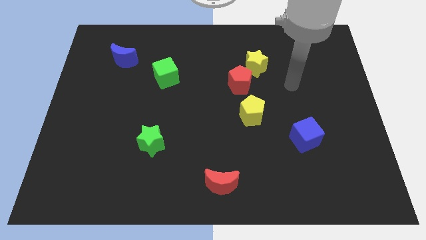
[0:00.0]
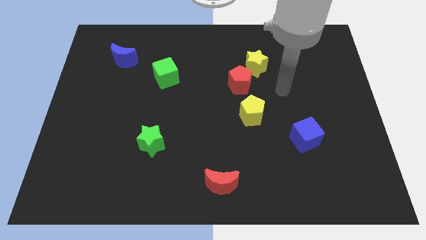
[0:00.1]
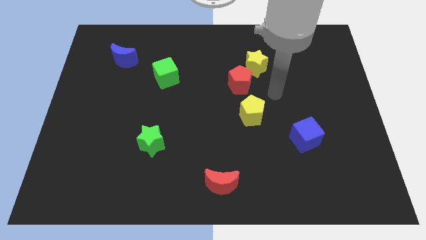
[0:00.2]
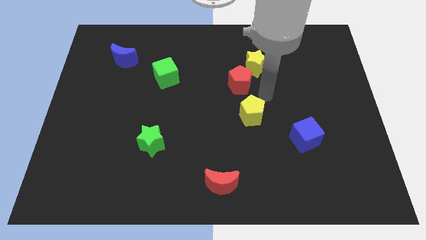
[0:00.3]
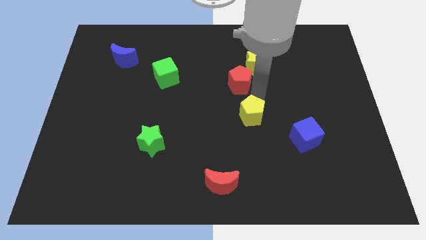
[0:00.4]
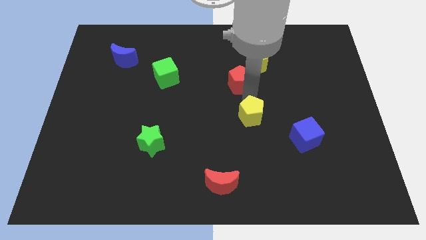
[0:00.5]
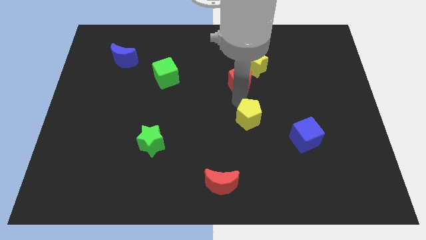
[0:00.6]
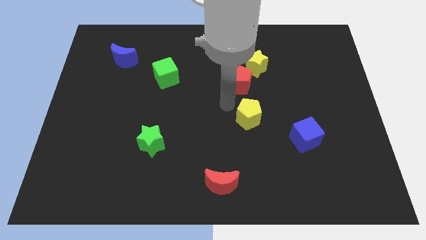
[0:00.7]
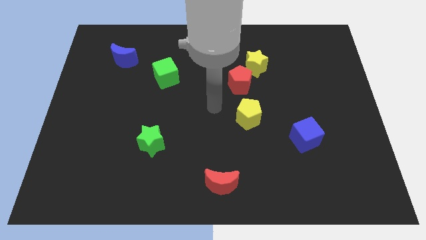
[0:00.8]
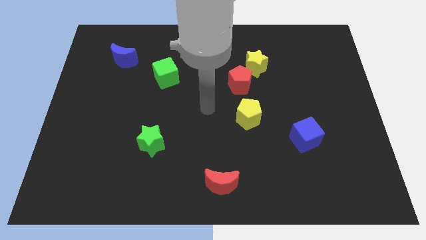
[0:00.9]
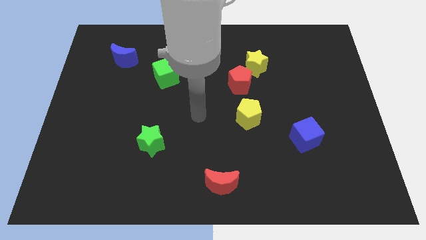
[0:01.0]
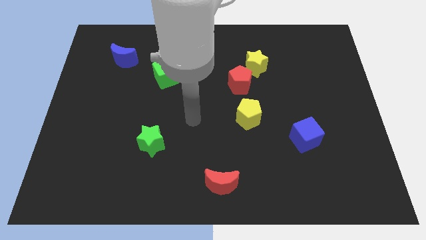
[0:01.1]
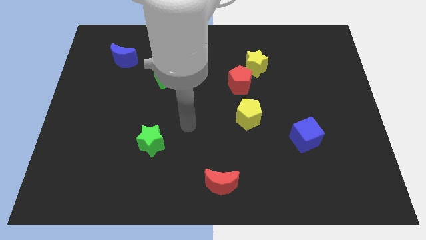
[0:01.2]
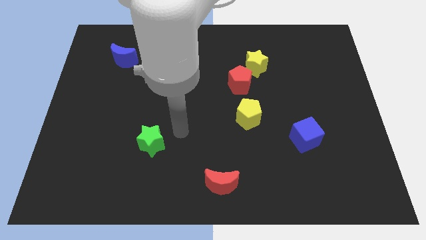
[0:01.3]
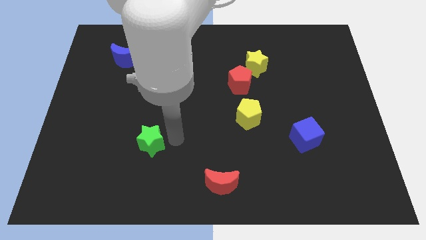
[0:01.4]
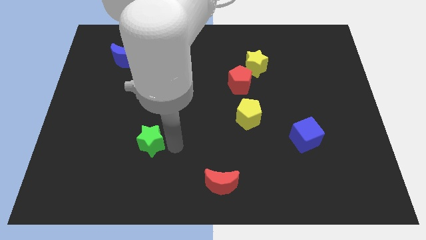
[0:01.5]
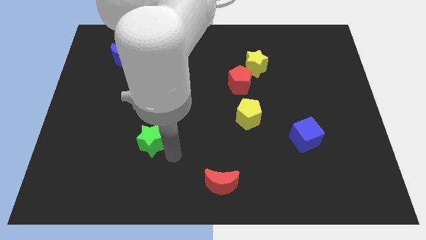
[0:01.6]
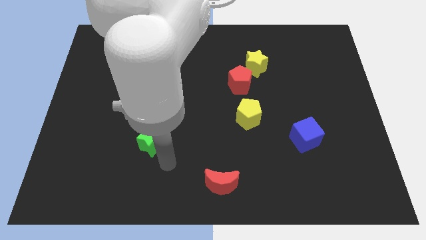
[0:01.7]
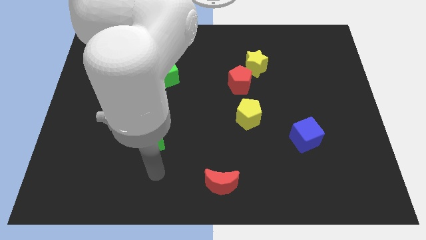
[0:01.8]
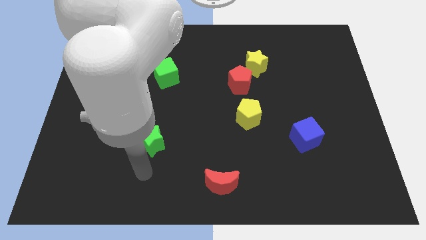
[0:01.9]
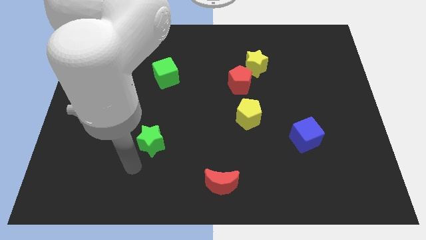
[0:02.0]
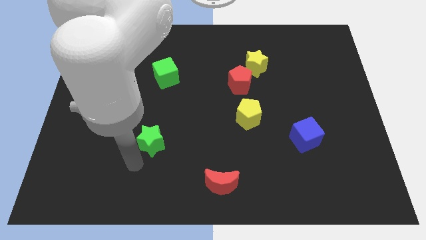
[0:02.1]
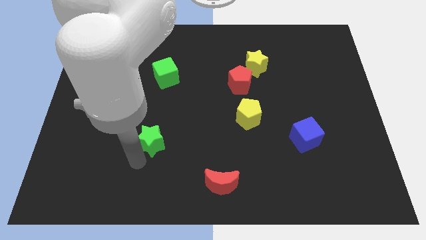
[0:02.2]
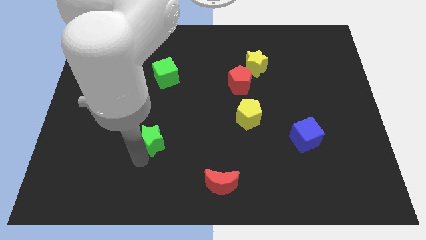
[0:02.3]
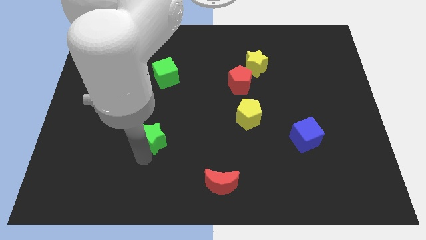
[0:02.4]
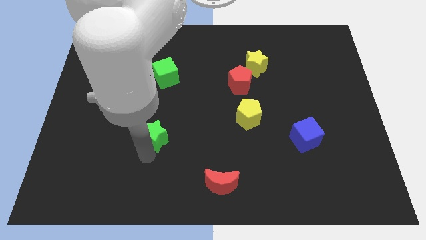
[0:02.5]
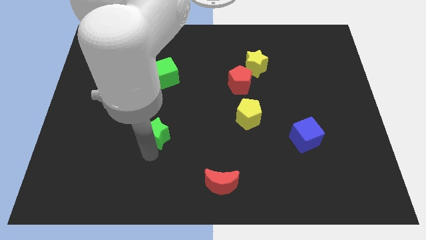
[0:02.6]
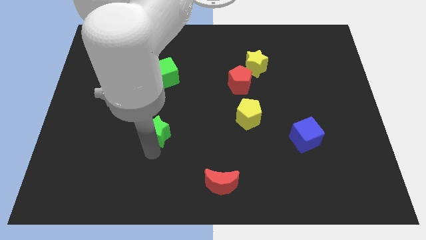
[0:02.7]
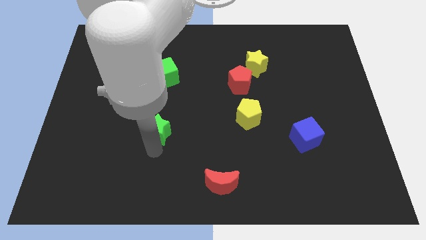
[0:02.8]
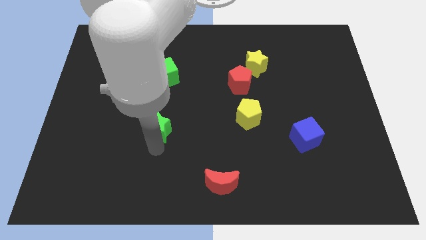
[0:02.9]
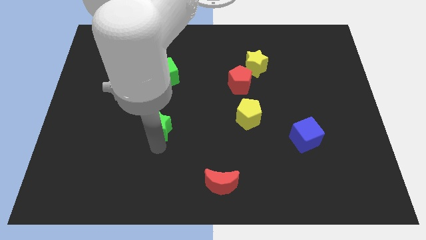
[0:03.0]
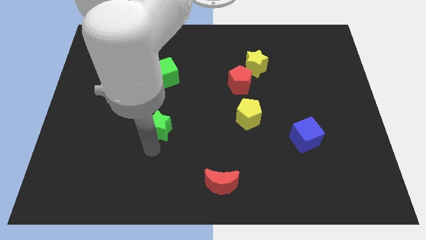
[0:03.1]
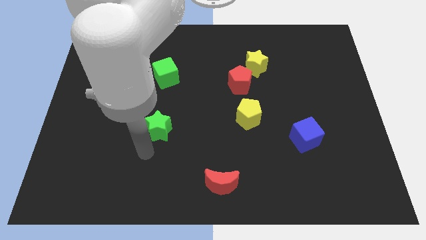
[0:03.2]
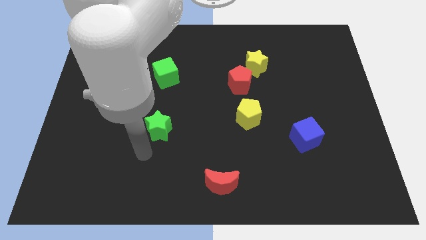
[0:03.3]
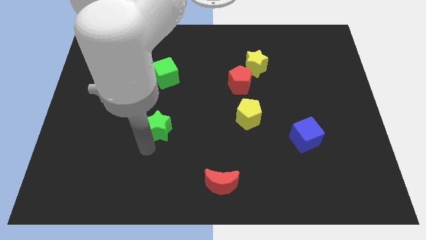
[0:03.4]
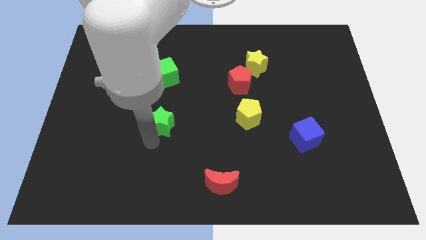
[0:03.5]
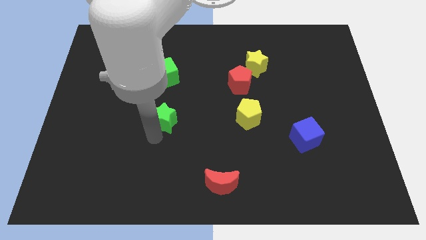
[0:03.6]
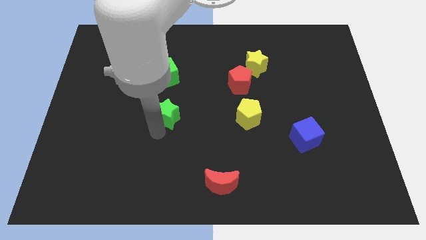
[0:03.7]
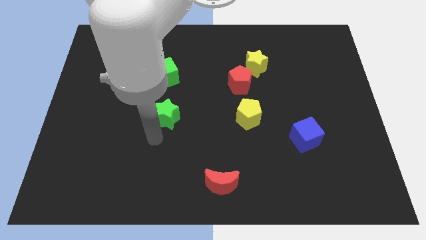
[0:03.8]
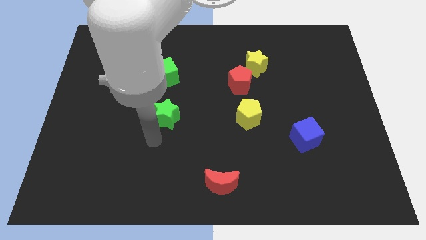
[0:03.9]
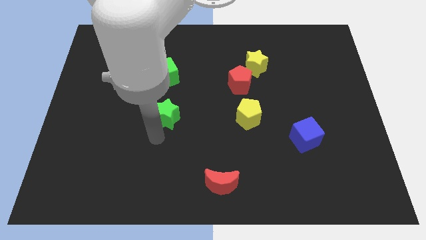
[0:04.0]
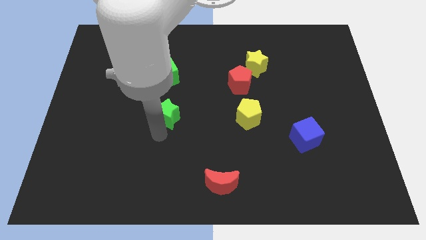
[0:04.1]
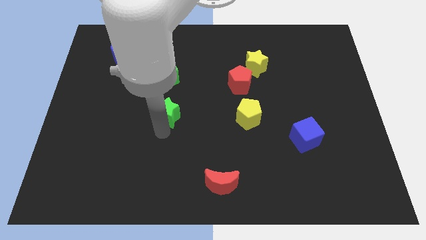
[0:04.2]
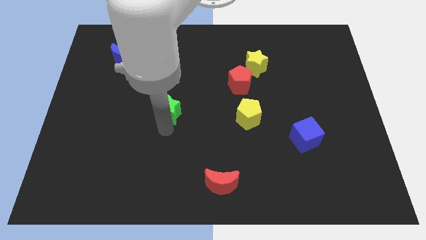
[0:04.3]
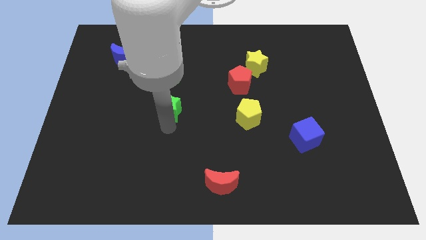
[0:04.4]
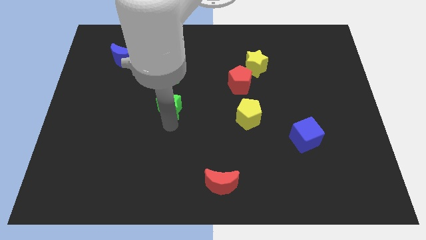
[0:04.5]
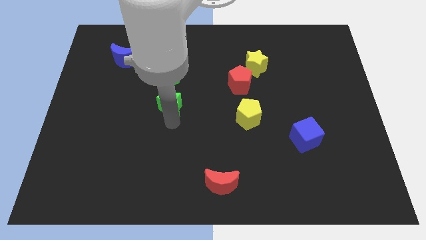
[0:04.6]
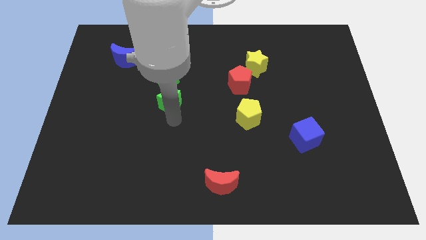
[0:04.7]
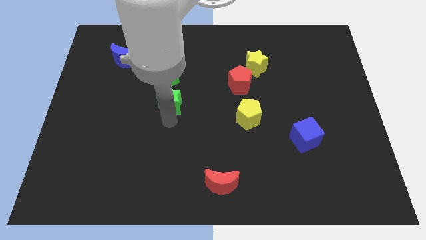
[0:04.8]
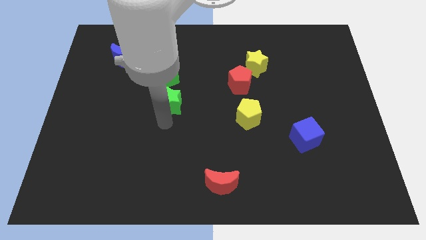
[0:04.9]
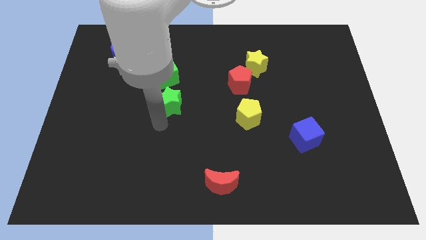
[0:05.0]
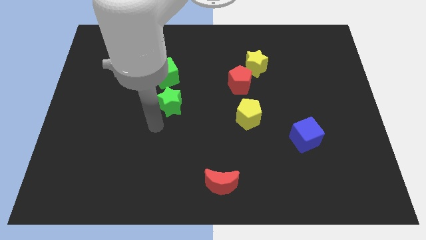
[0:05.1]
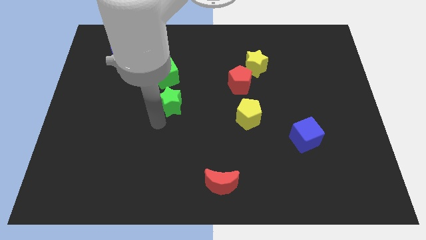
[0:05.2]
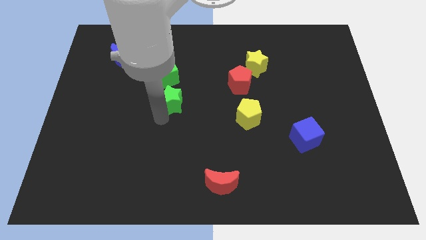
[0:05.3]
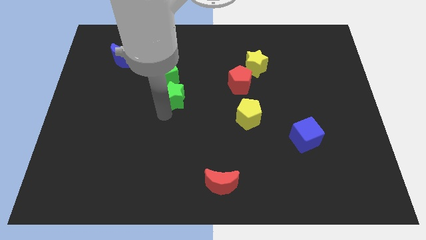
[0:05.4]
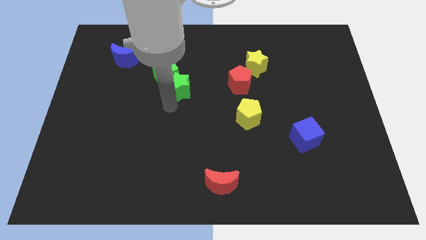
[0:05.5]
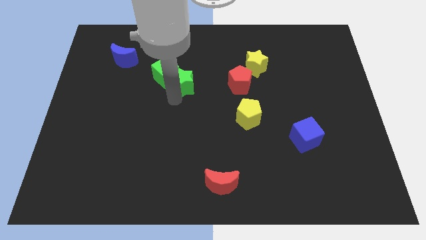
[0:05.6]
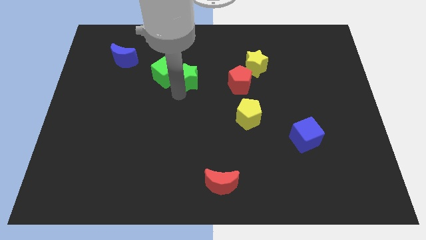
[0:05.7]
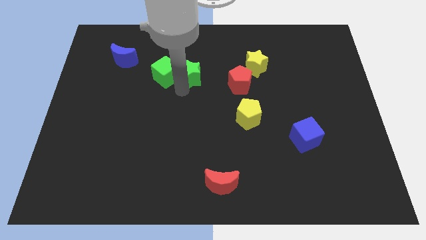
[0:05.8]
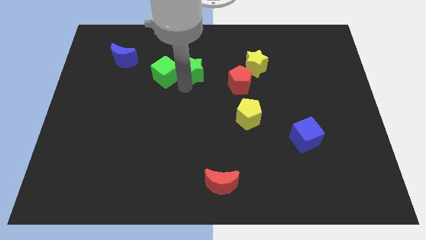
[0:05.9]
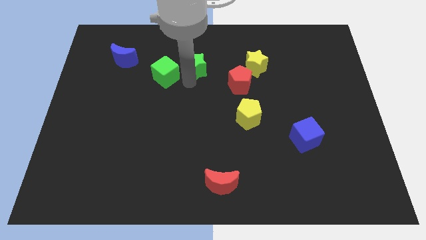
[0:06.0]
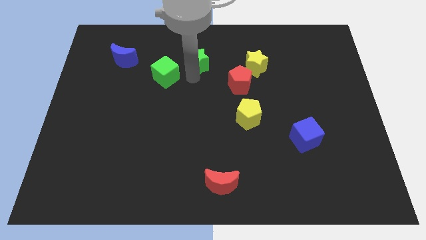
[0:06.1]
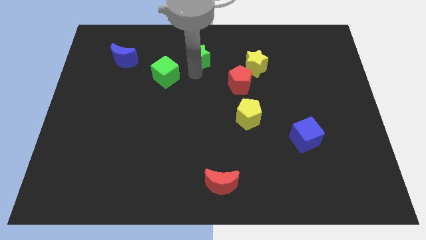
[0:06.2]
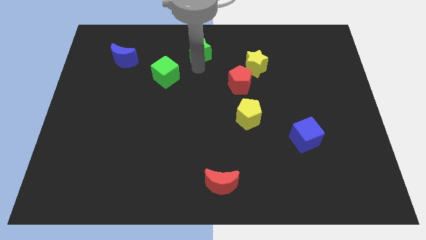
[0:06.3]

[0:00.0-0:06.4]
put the green star to the top side
